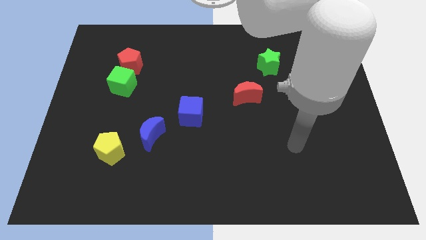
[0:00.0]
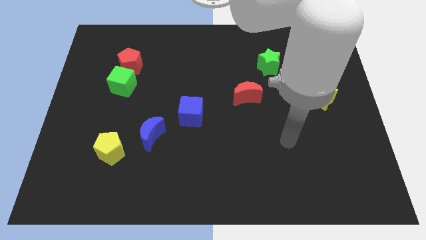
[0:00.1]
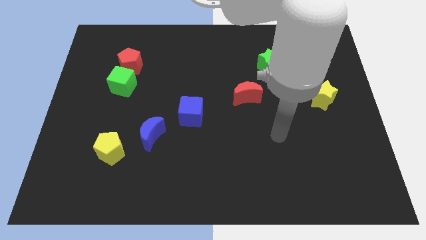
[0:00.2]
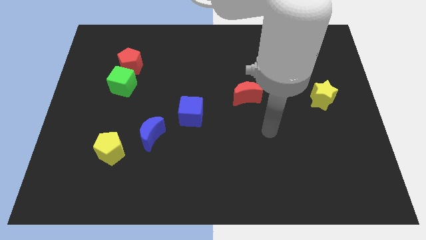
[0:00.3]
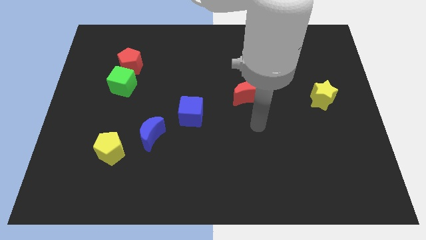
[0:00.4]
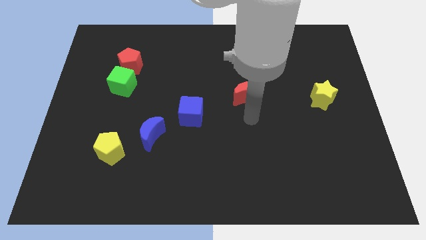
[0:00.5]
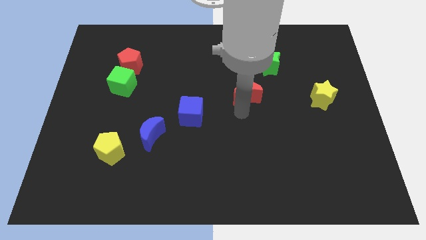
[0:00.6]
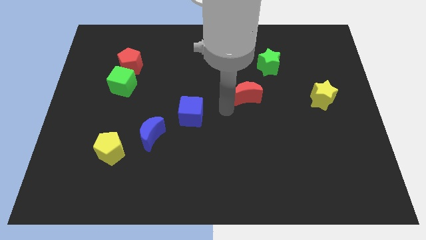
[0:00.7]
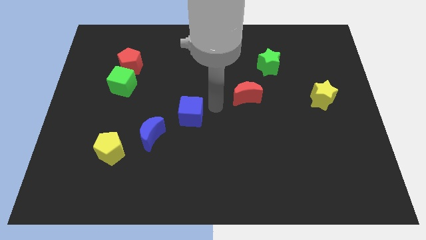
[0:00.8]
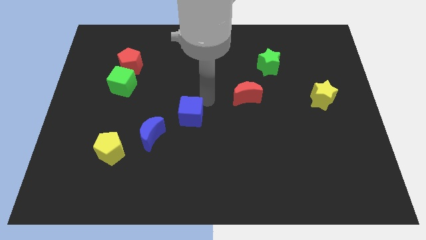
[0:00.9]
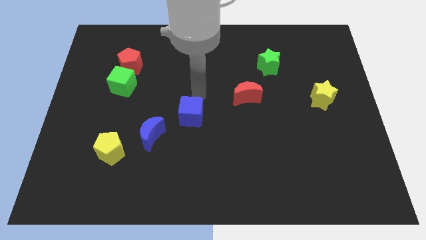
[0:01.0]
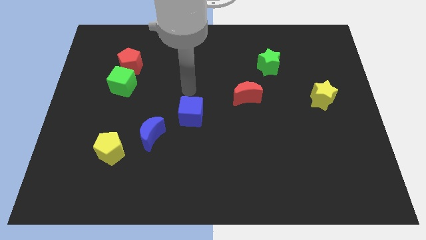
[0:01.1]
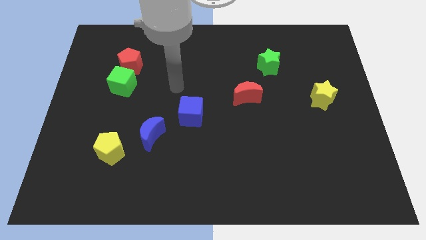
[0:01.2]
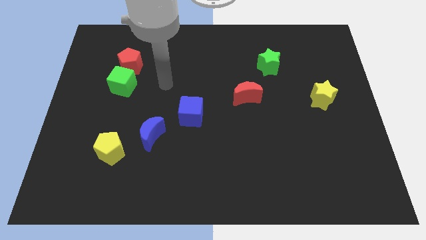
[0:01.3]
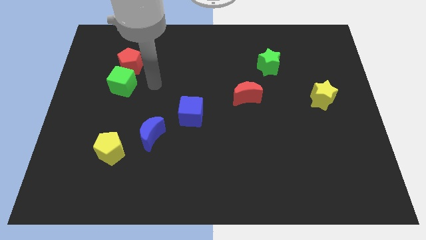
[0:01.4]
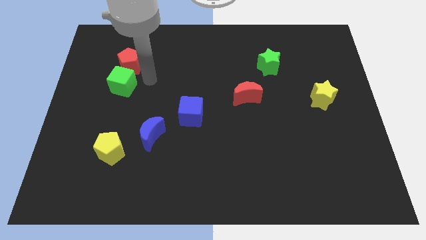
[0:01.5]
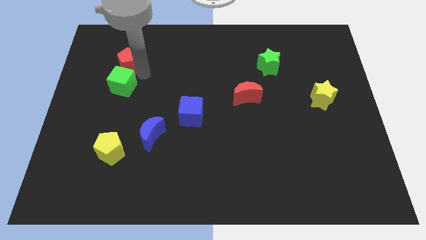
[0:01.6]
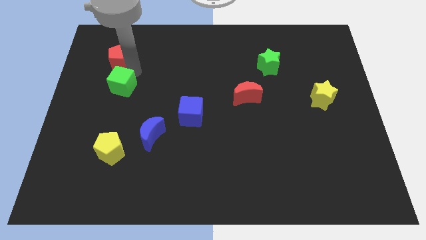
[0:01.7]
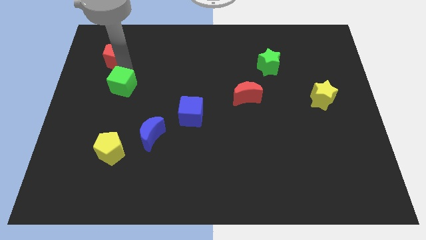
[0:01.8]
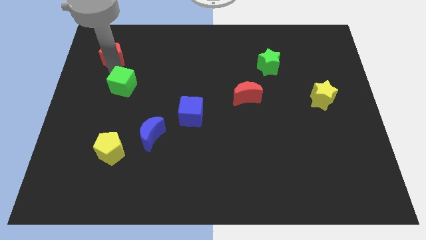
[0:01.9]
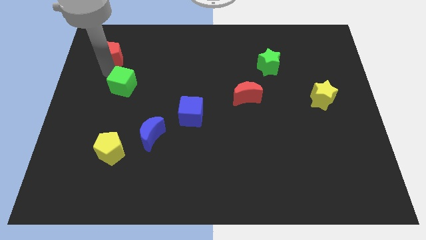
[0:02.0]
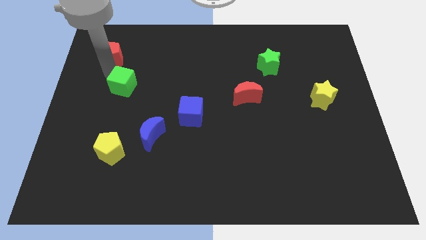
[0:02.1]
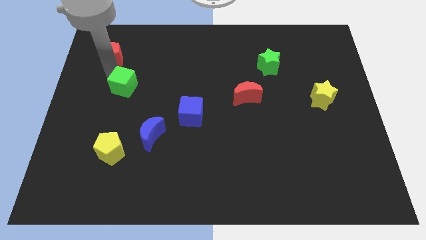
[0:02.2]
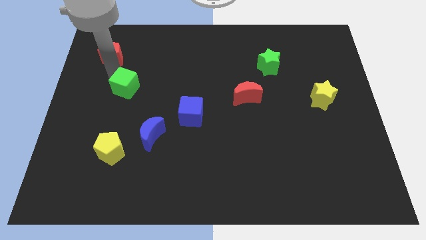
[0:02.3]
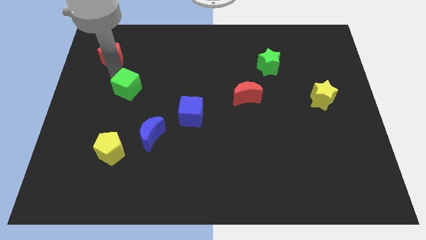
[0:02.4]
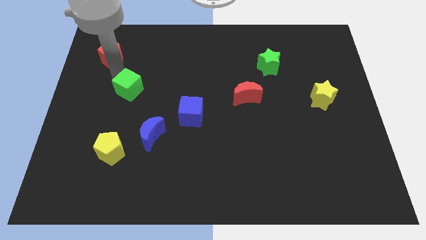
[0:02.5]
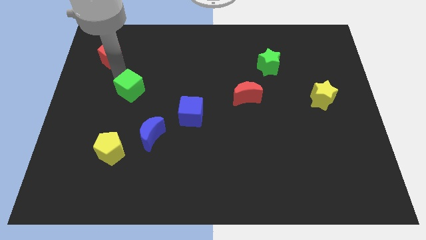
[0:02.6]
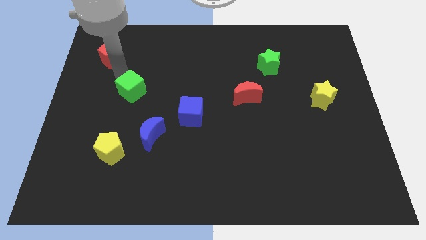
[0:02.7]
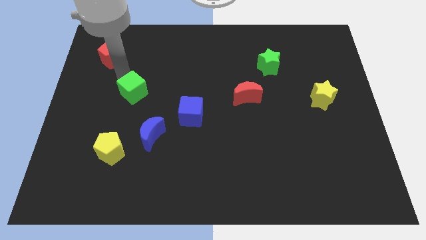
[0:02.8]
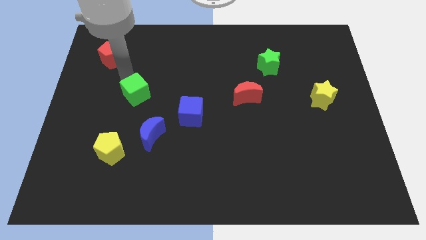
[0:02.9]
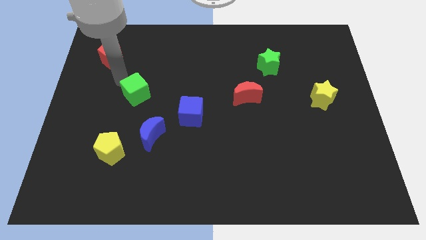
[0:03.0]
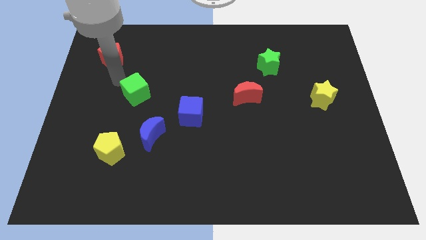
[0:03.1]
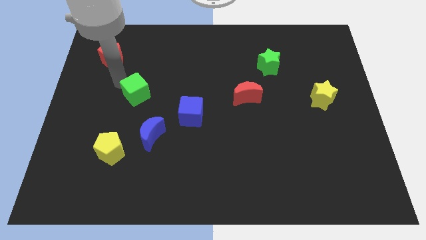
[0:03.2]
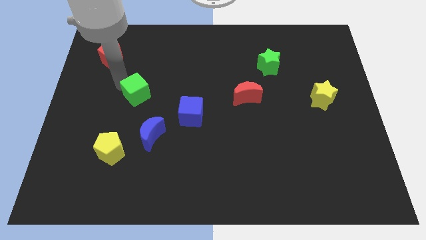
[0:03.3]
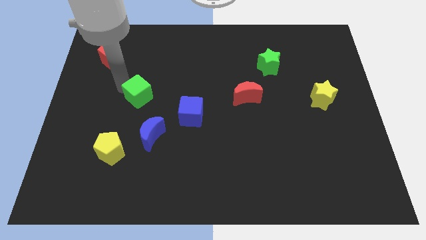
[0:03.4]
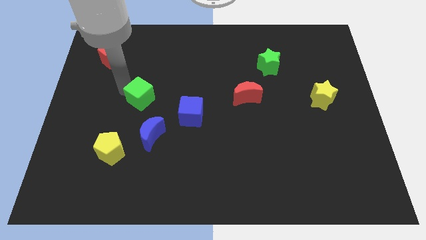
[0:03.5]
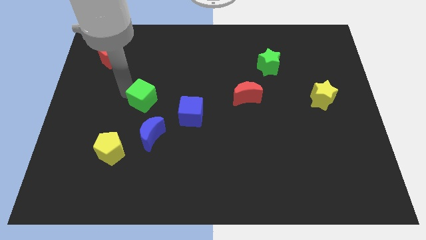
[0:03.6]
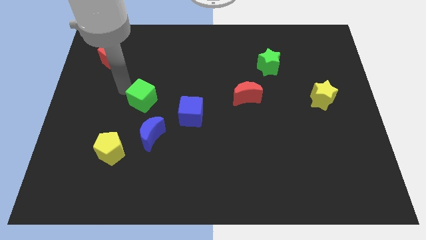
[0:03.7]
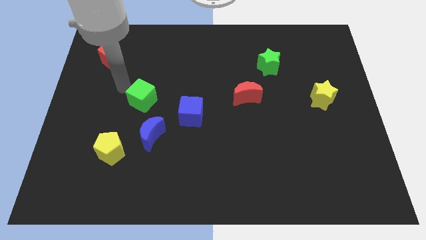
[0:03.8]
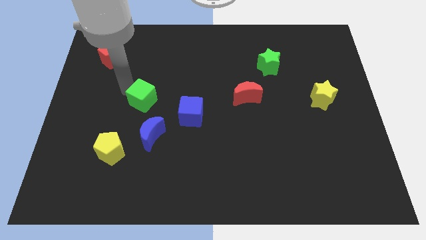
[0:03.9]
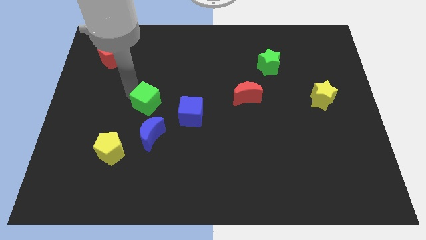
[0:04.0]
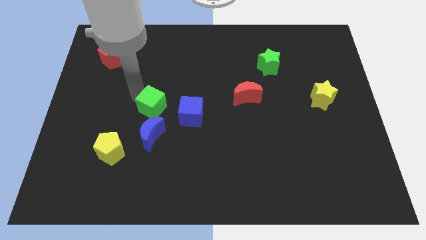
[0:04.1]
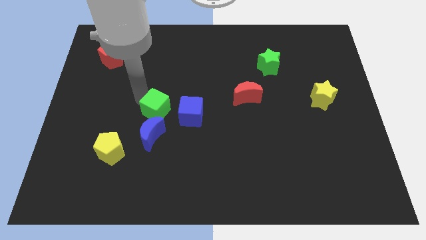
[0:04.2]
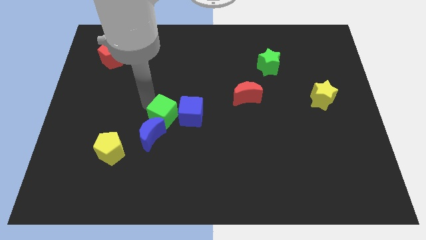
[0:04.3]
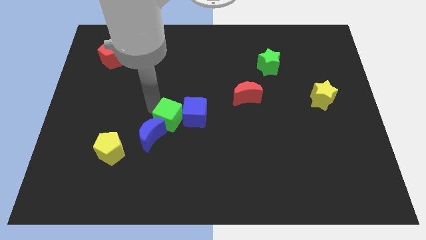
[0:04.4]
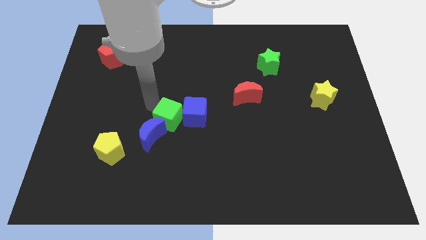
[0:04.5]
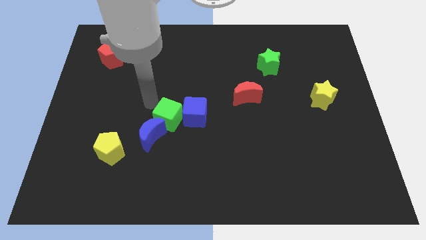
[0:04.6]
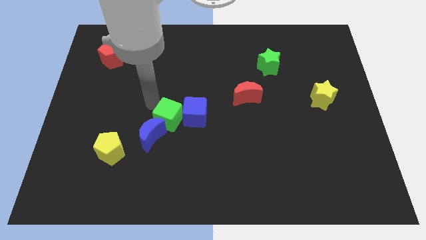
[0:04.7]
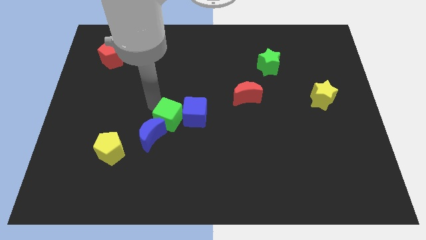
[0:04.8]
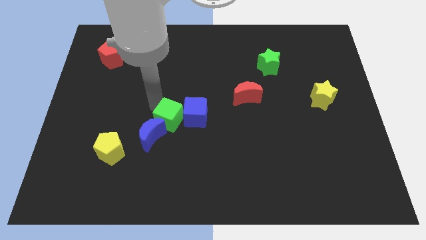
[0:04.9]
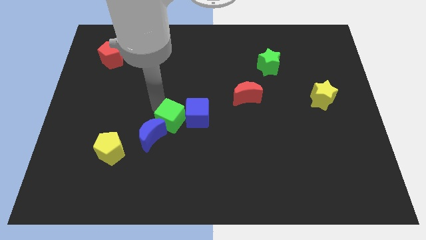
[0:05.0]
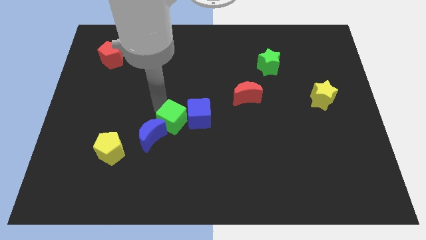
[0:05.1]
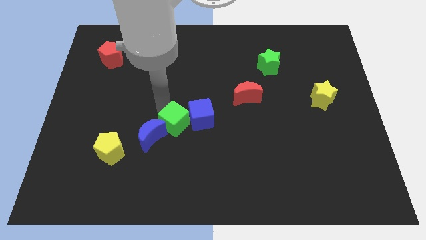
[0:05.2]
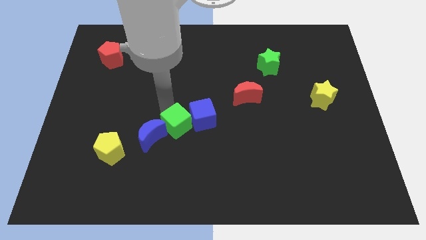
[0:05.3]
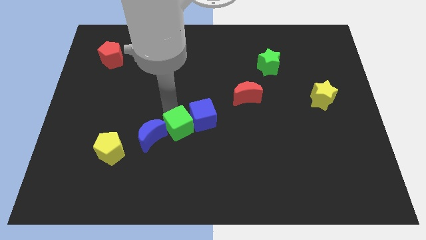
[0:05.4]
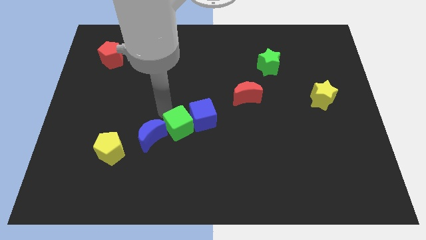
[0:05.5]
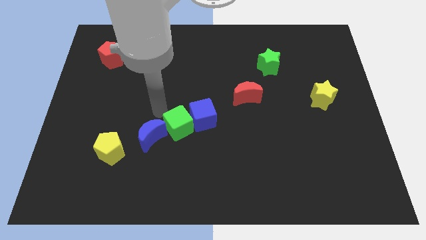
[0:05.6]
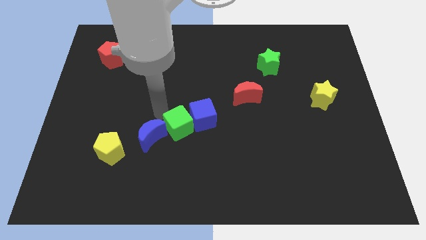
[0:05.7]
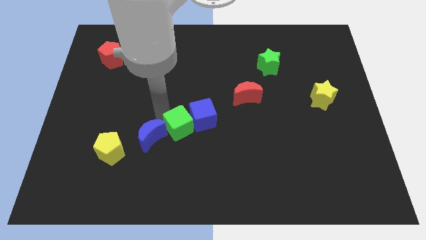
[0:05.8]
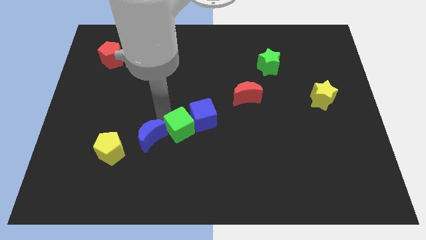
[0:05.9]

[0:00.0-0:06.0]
push the green cube diagonally downwards and right

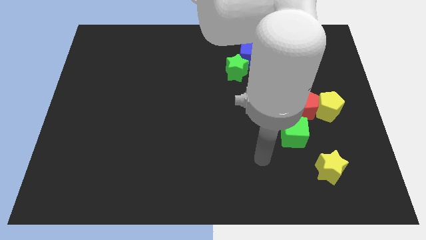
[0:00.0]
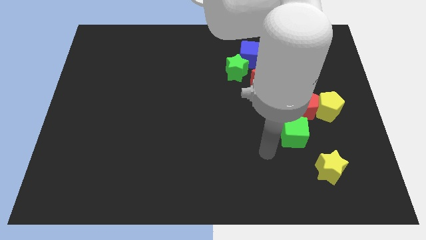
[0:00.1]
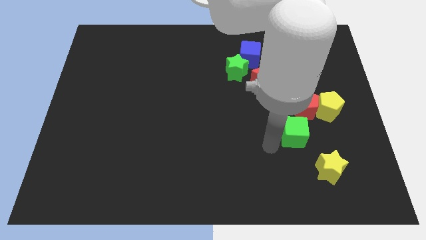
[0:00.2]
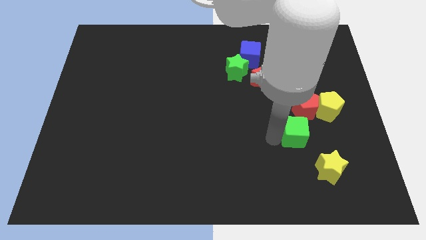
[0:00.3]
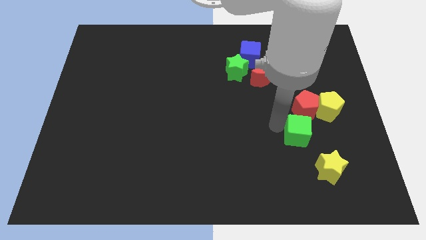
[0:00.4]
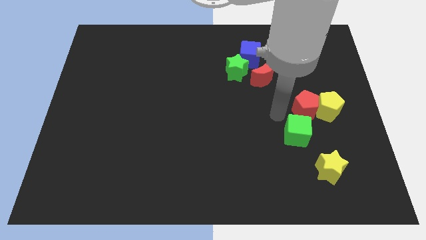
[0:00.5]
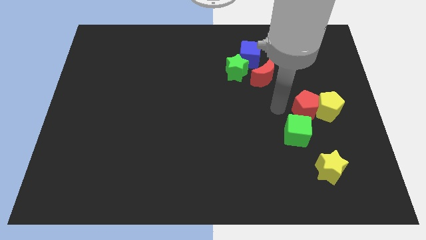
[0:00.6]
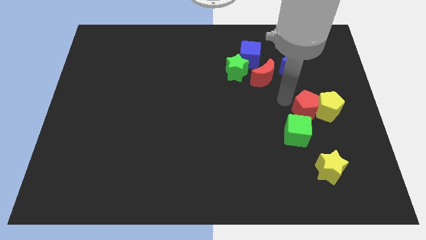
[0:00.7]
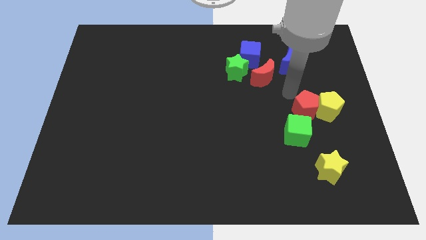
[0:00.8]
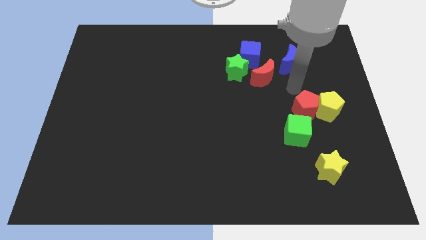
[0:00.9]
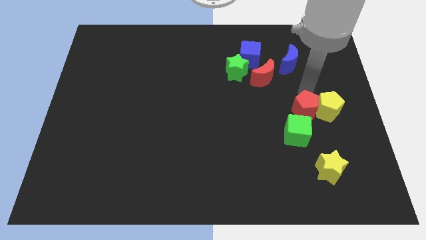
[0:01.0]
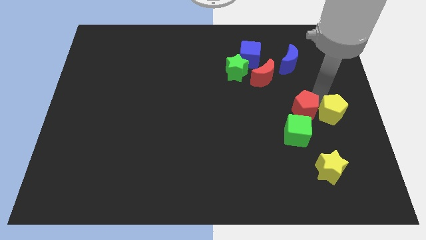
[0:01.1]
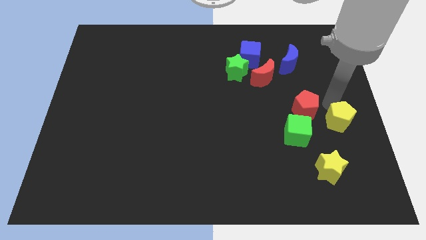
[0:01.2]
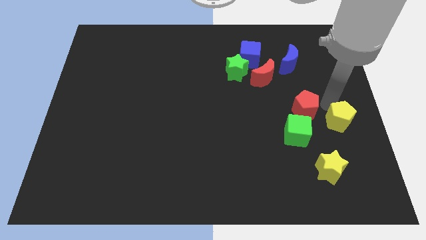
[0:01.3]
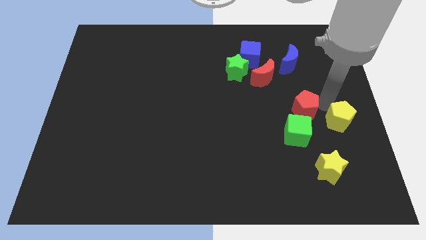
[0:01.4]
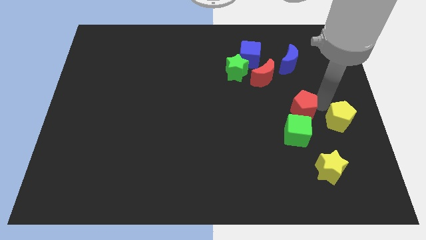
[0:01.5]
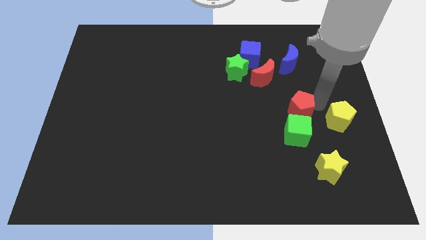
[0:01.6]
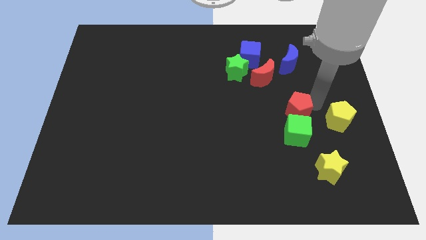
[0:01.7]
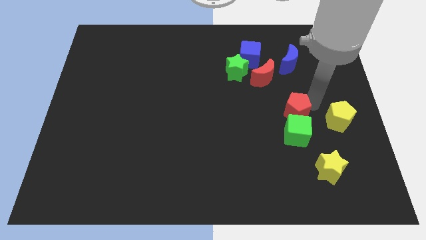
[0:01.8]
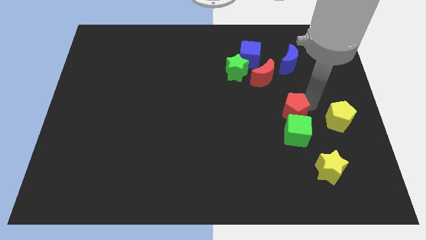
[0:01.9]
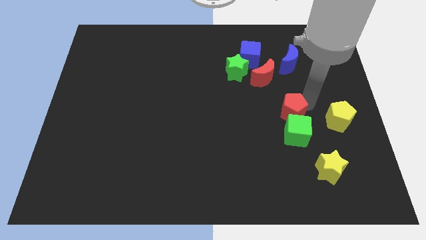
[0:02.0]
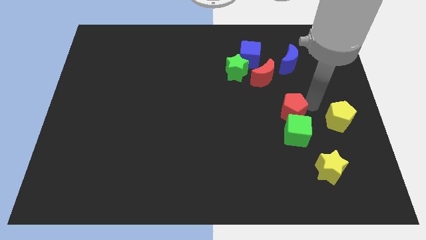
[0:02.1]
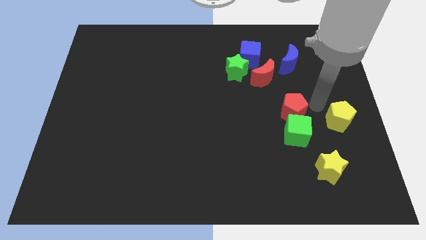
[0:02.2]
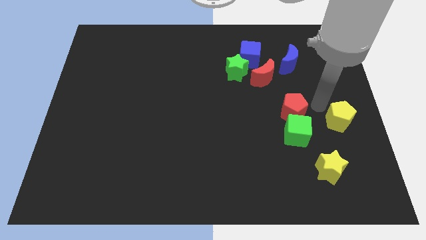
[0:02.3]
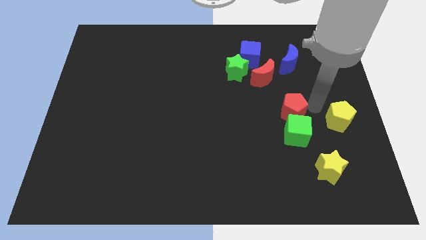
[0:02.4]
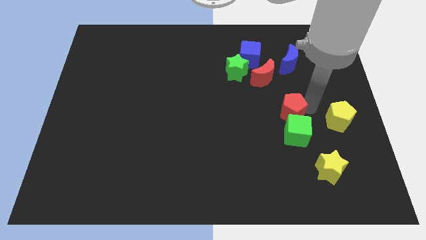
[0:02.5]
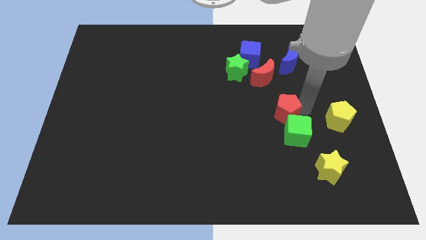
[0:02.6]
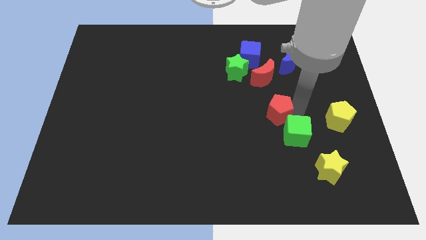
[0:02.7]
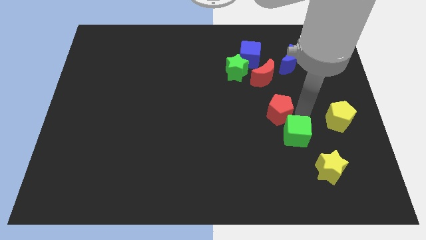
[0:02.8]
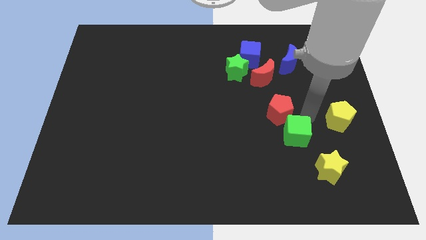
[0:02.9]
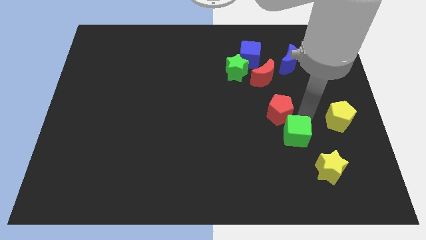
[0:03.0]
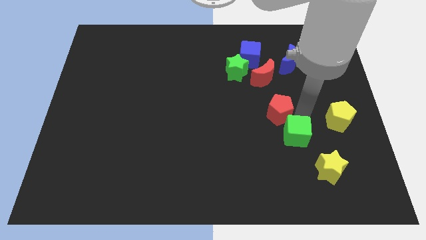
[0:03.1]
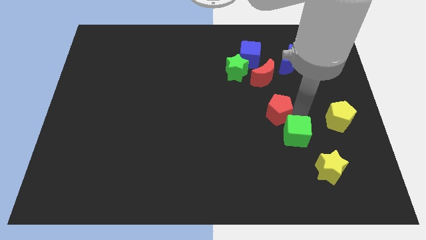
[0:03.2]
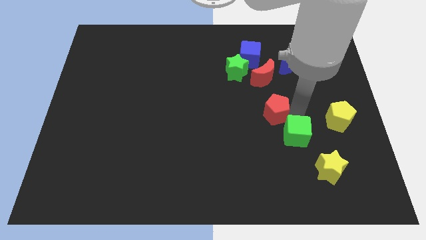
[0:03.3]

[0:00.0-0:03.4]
move the red pentagon to the left a little
